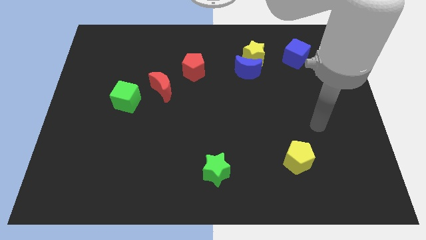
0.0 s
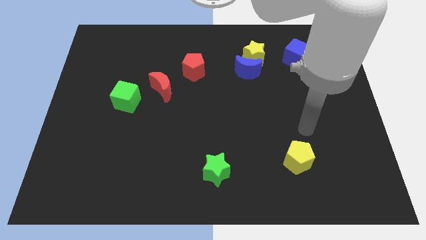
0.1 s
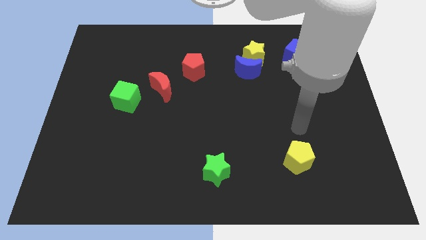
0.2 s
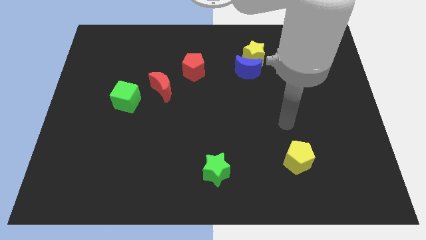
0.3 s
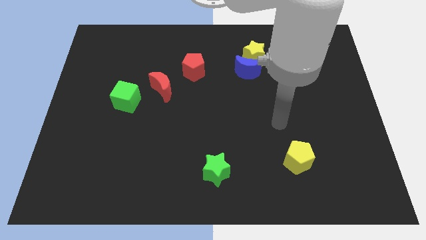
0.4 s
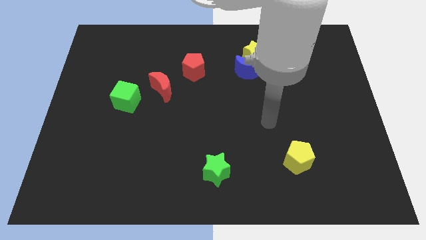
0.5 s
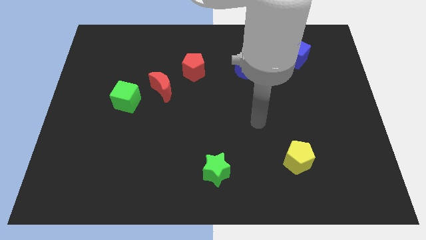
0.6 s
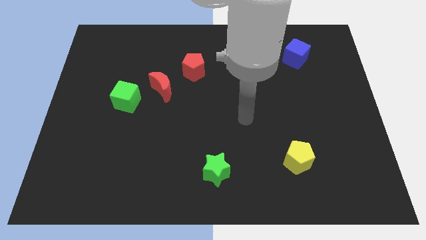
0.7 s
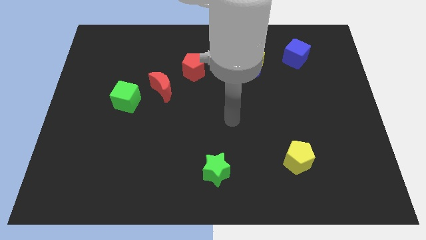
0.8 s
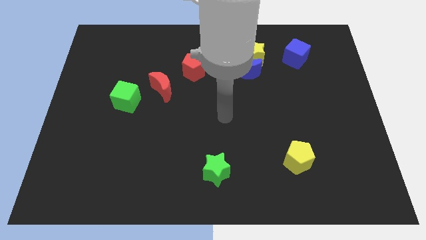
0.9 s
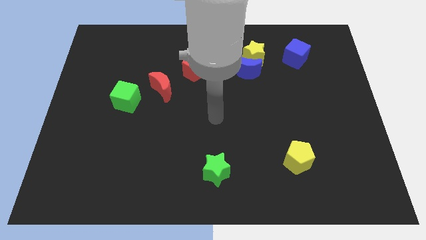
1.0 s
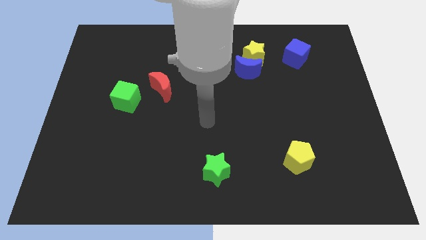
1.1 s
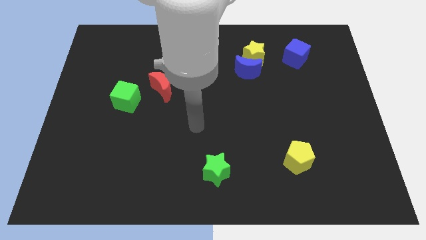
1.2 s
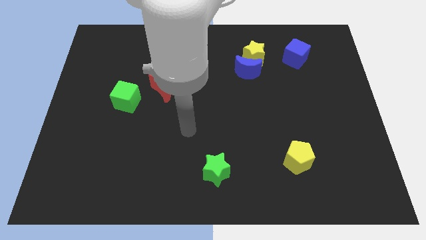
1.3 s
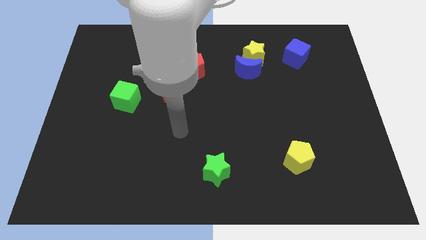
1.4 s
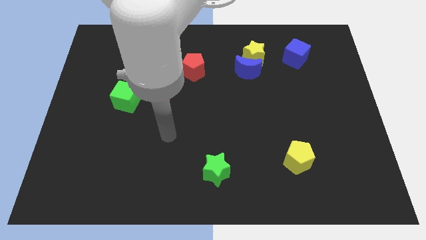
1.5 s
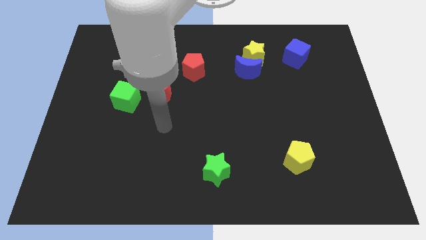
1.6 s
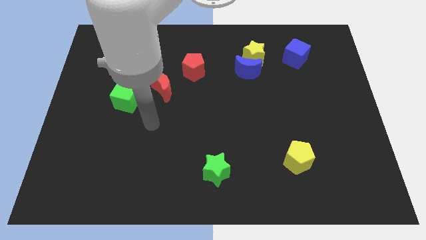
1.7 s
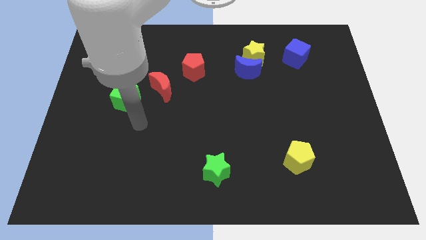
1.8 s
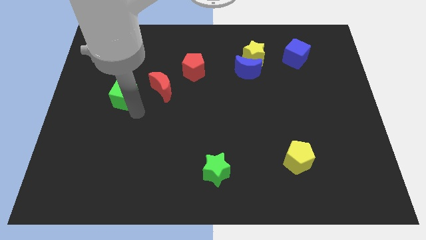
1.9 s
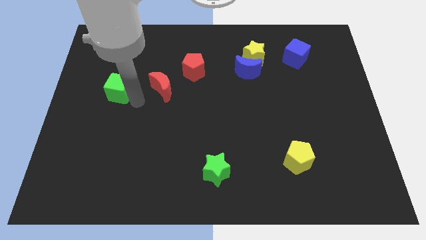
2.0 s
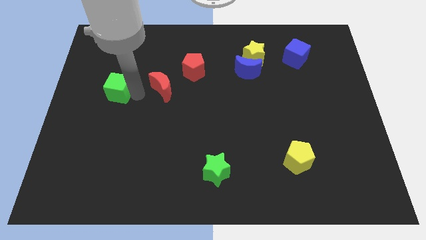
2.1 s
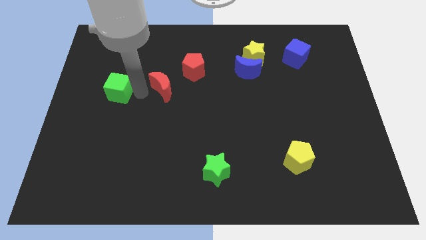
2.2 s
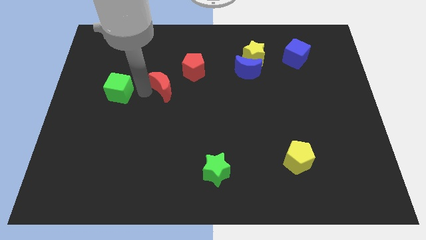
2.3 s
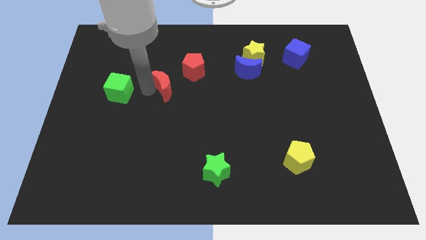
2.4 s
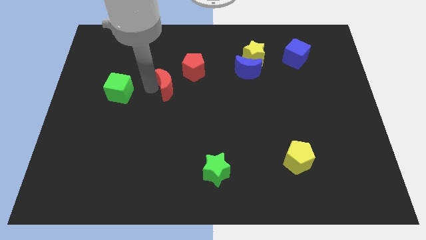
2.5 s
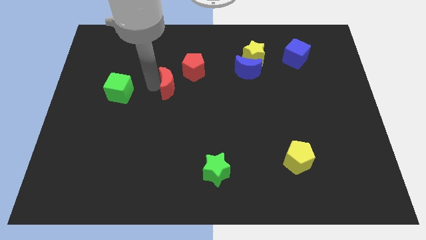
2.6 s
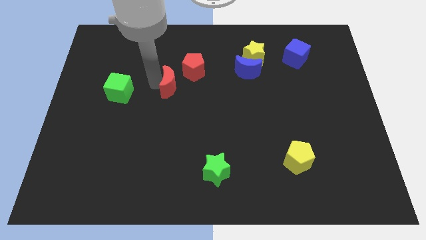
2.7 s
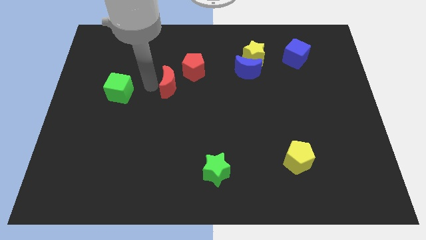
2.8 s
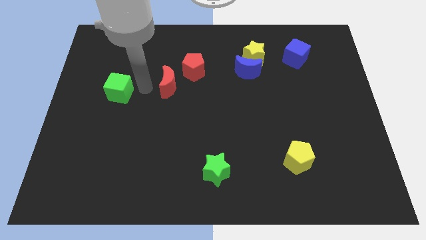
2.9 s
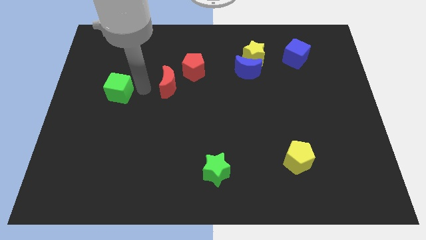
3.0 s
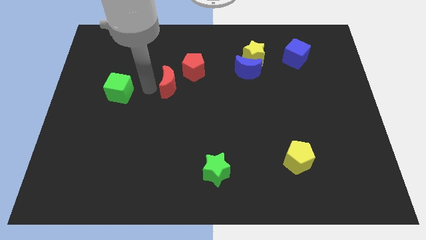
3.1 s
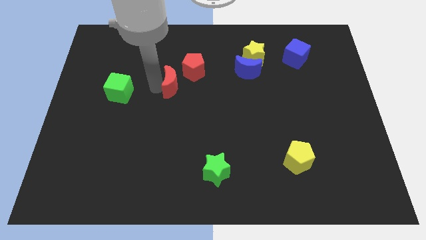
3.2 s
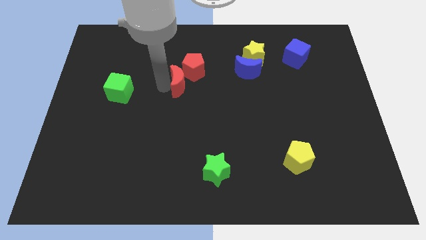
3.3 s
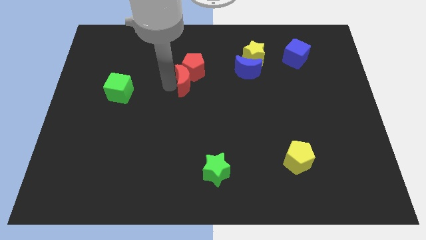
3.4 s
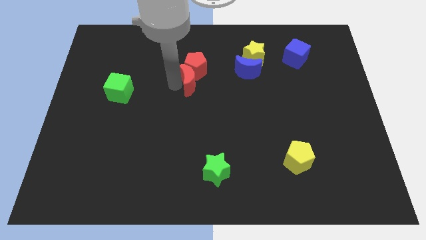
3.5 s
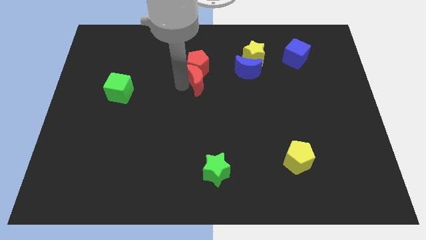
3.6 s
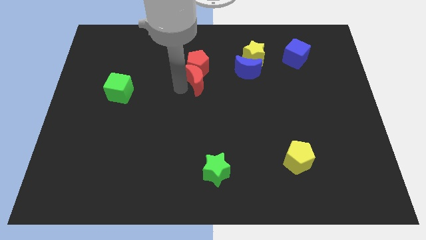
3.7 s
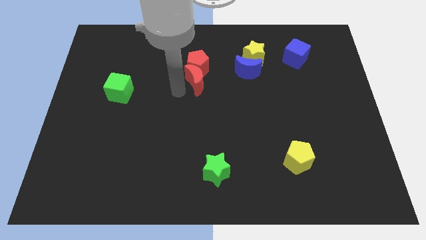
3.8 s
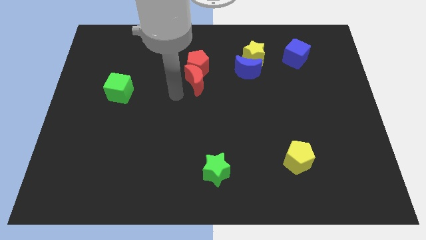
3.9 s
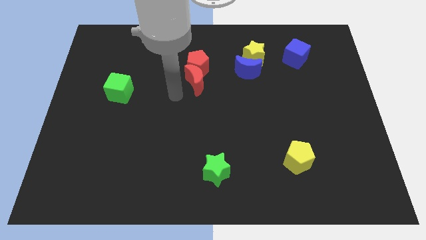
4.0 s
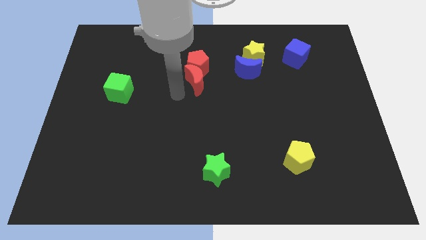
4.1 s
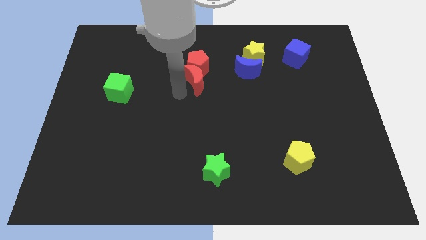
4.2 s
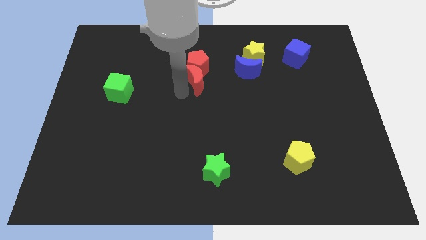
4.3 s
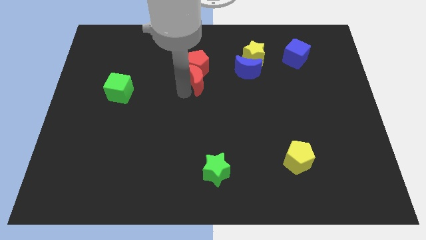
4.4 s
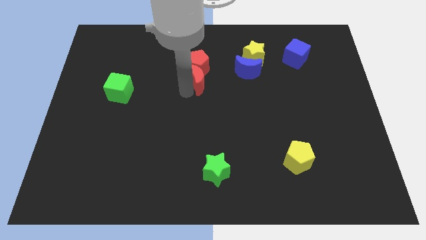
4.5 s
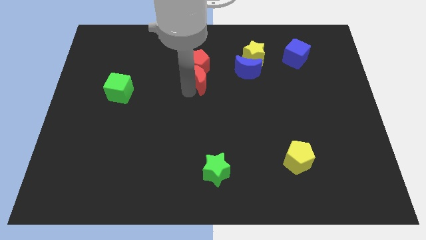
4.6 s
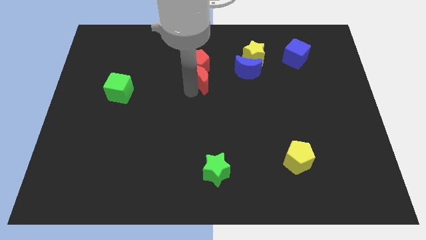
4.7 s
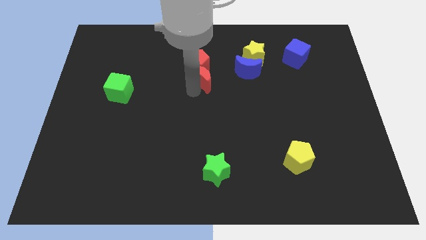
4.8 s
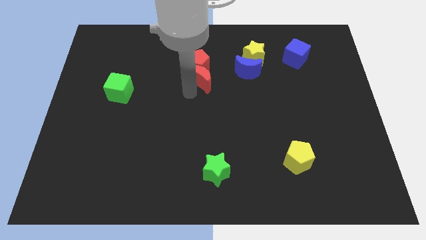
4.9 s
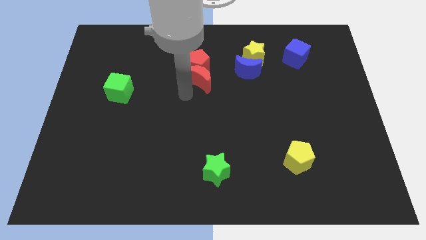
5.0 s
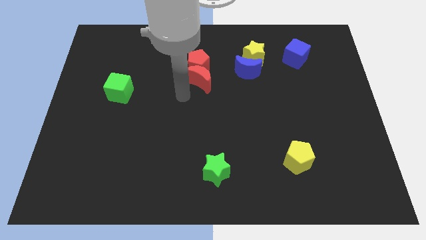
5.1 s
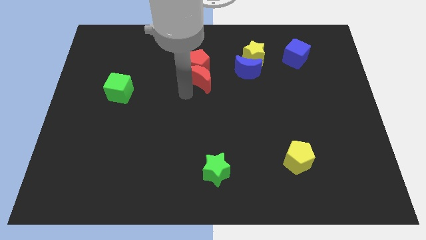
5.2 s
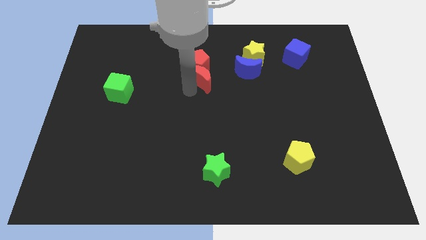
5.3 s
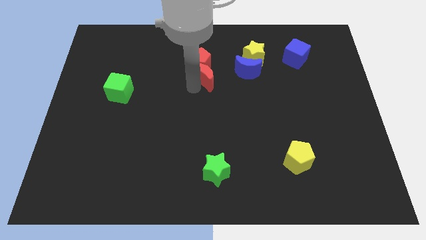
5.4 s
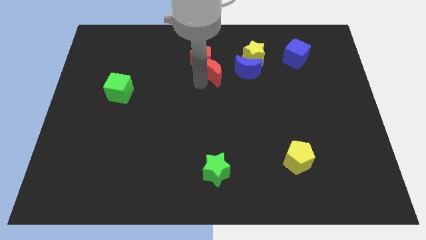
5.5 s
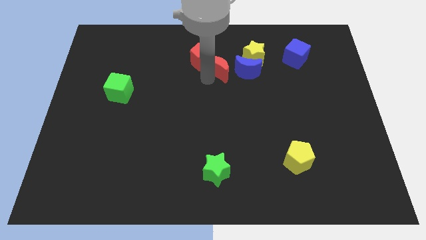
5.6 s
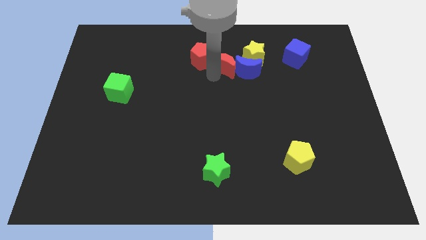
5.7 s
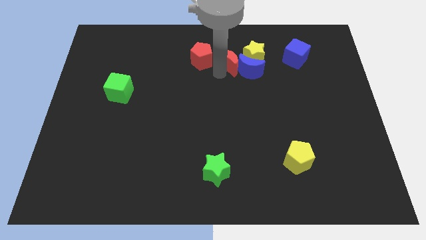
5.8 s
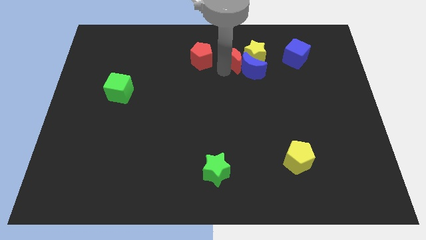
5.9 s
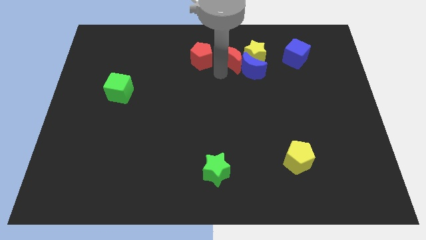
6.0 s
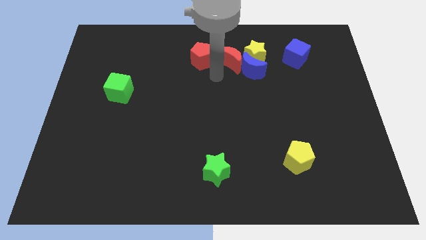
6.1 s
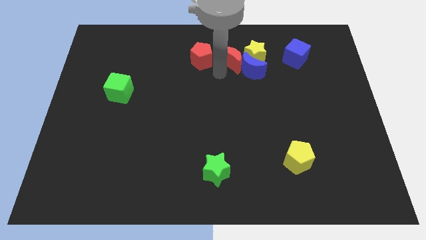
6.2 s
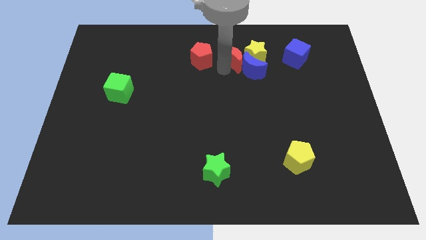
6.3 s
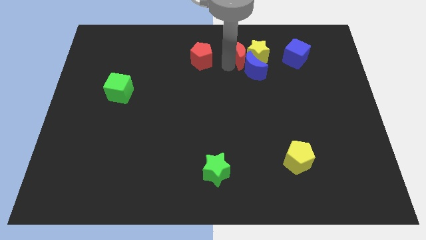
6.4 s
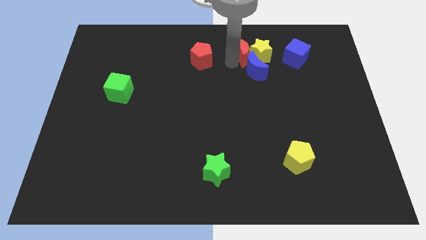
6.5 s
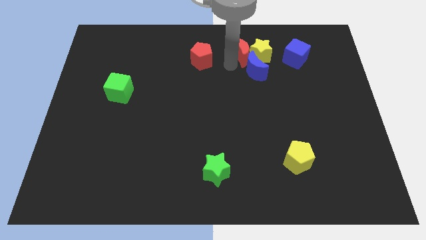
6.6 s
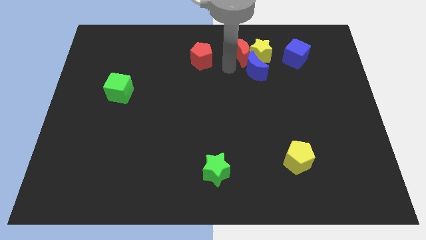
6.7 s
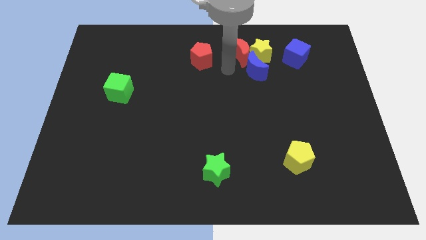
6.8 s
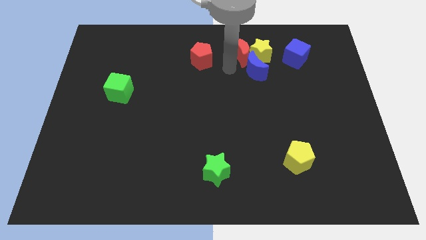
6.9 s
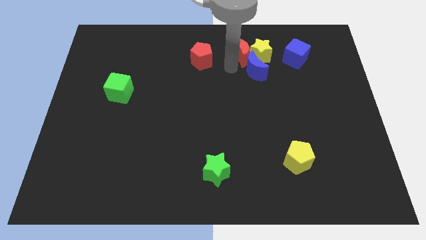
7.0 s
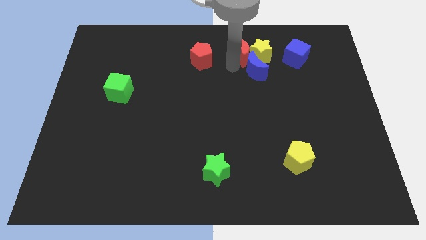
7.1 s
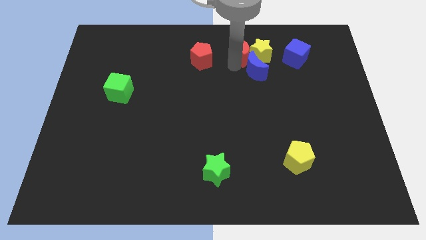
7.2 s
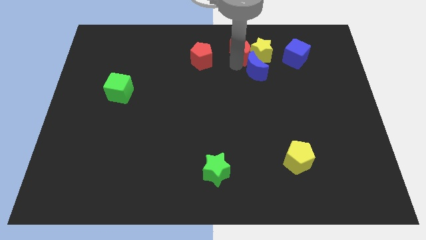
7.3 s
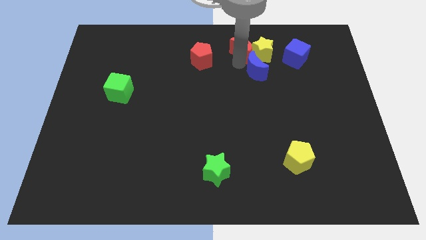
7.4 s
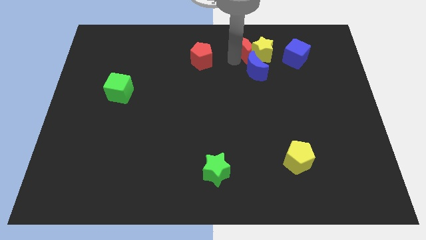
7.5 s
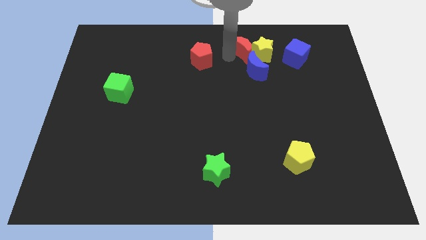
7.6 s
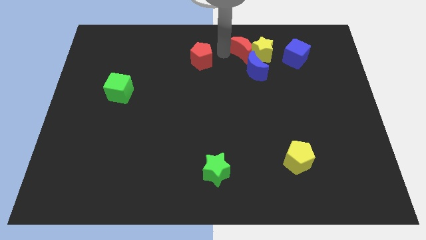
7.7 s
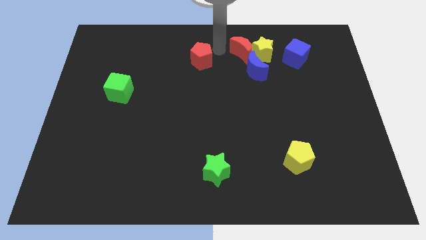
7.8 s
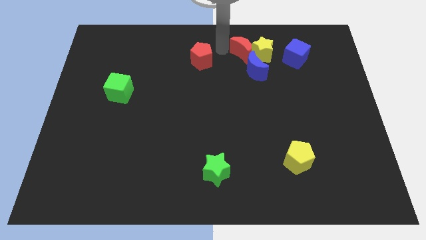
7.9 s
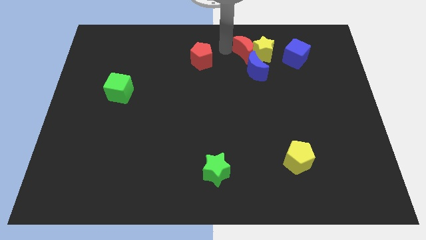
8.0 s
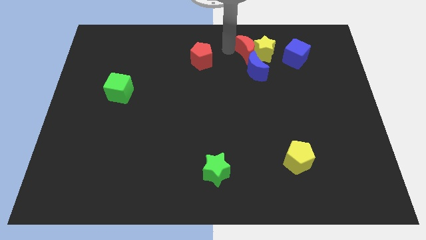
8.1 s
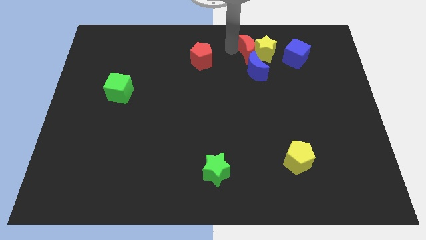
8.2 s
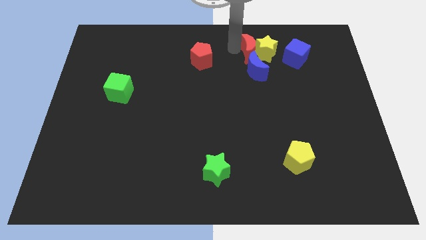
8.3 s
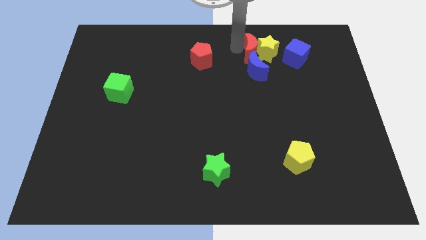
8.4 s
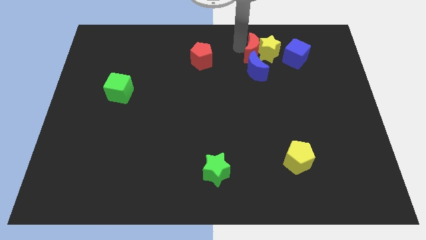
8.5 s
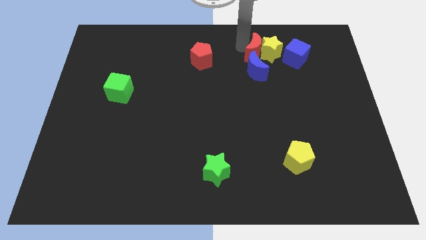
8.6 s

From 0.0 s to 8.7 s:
put the red moon to the top right side of the blue moon
